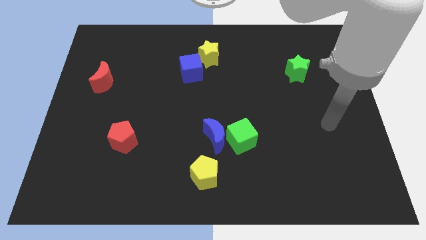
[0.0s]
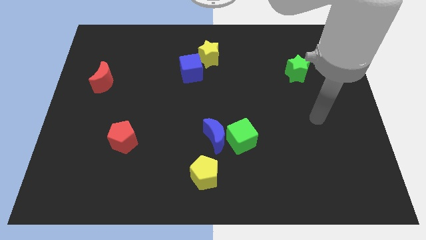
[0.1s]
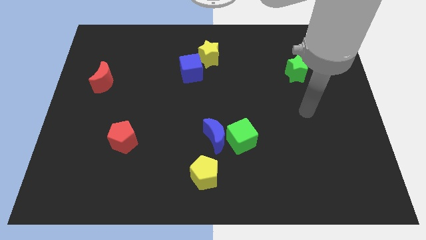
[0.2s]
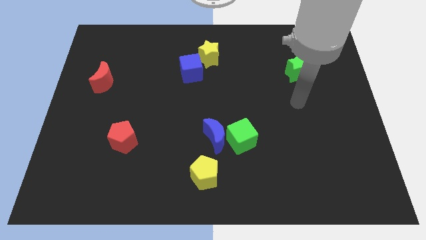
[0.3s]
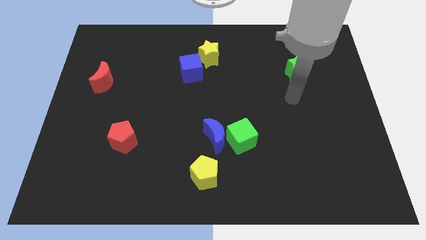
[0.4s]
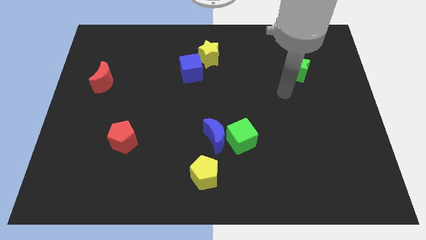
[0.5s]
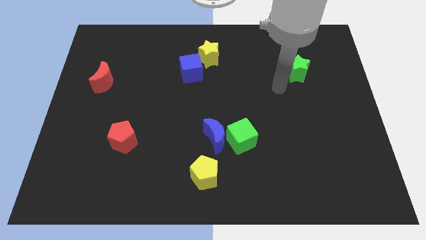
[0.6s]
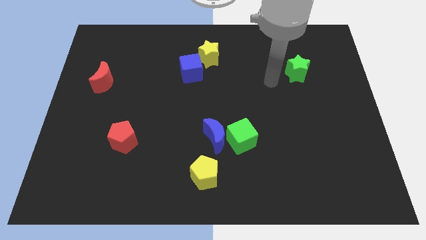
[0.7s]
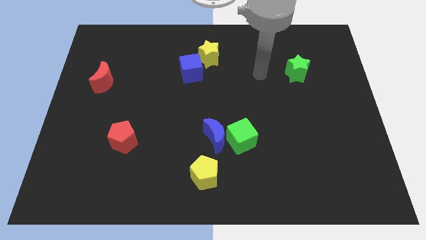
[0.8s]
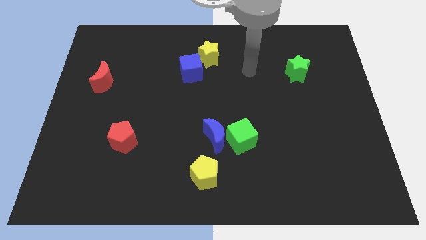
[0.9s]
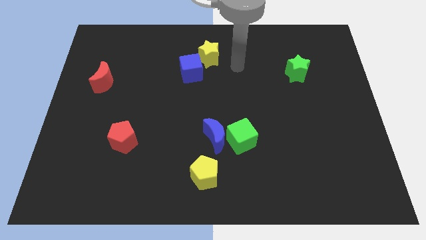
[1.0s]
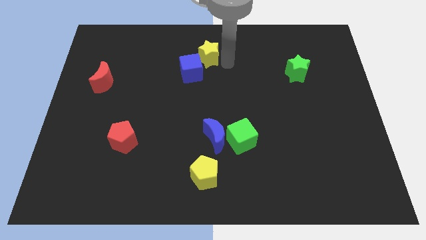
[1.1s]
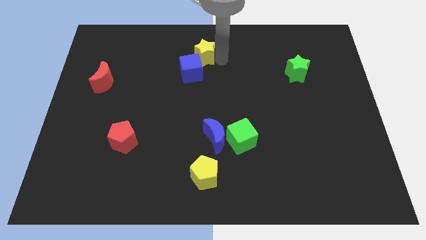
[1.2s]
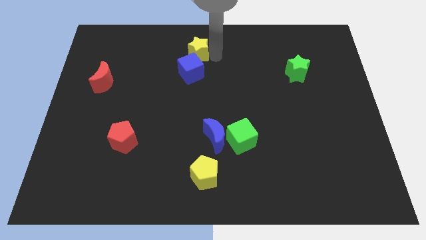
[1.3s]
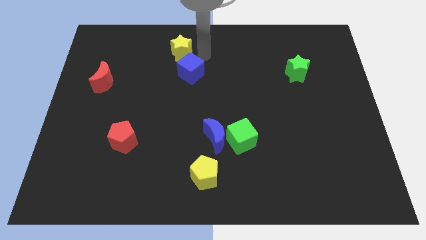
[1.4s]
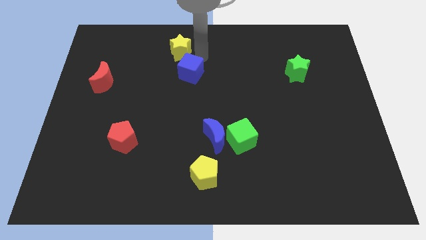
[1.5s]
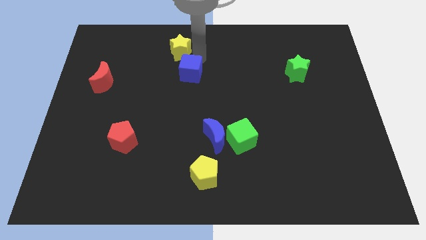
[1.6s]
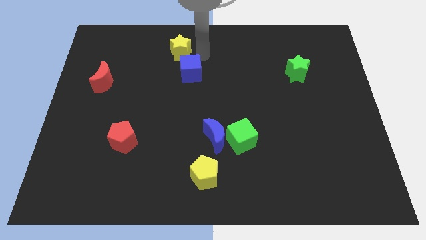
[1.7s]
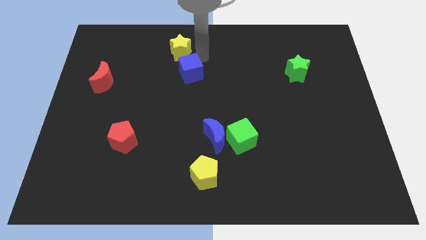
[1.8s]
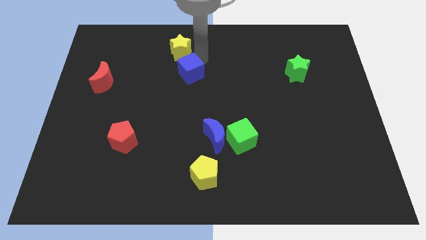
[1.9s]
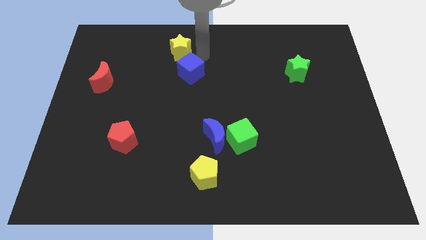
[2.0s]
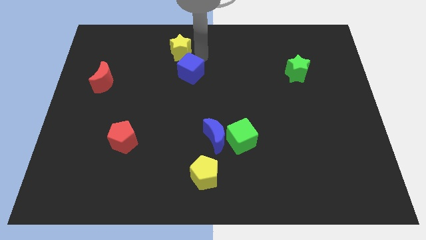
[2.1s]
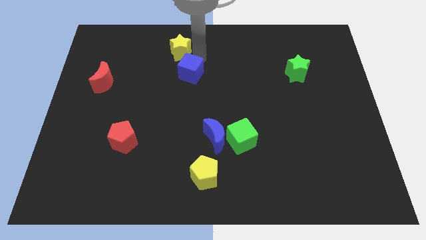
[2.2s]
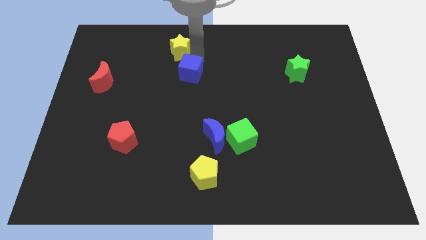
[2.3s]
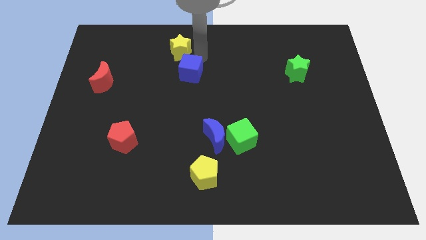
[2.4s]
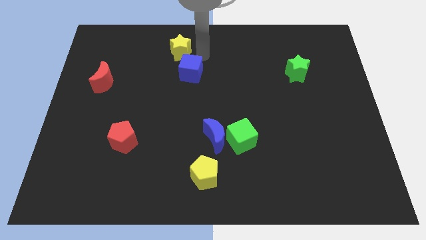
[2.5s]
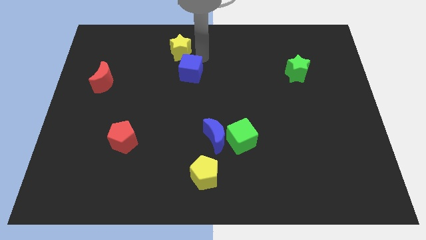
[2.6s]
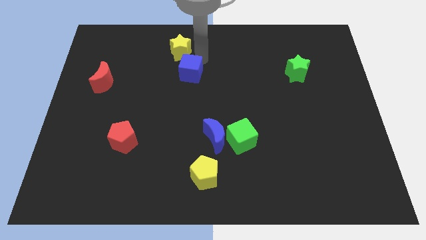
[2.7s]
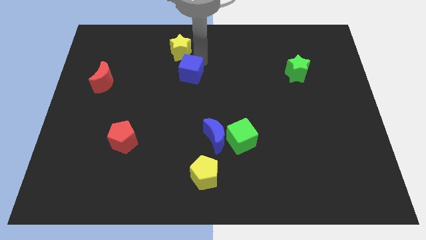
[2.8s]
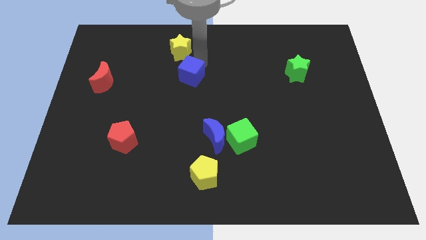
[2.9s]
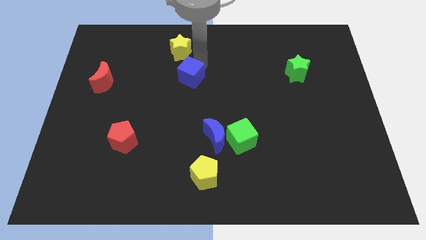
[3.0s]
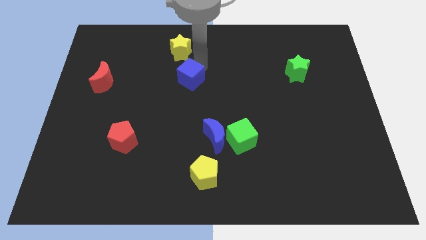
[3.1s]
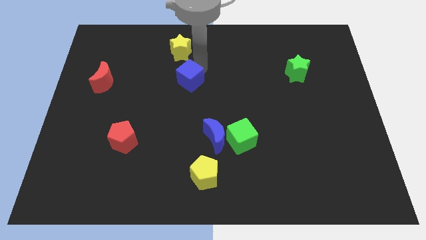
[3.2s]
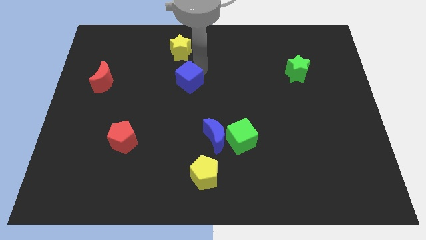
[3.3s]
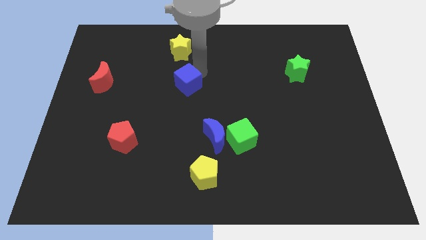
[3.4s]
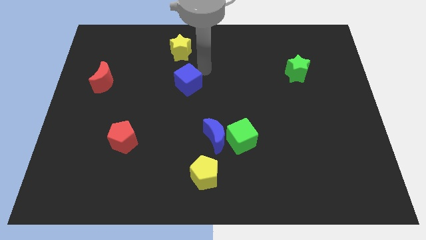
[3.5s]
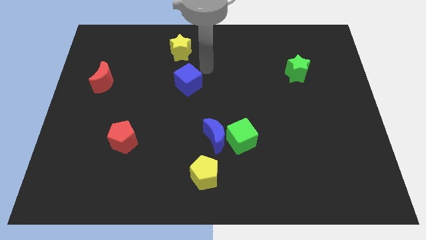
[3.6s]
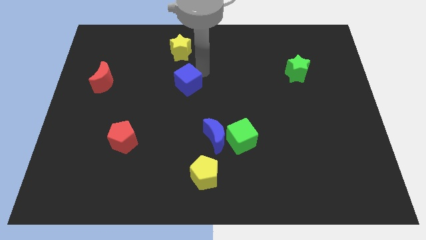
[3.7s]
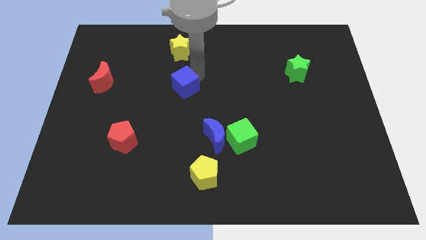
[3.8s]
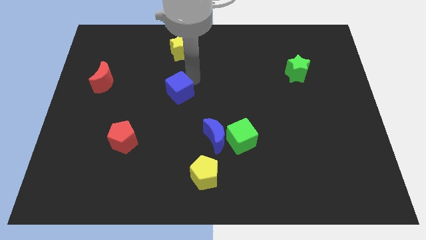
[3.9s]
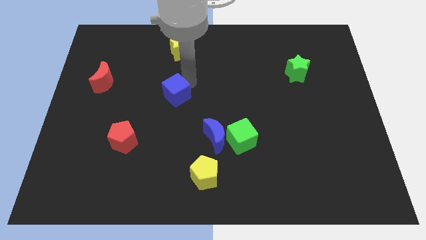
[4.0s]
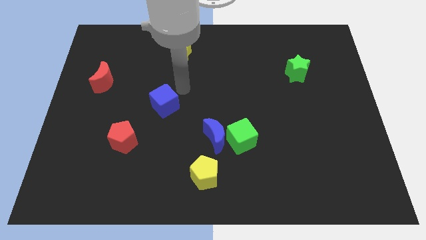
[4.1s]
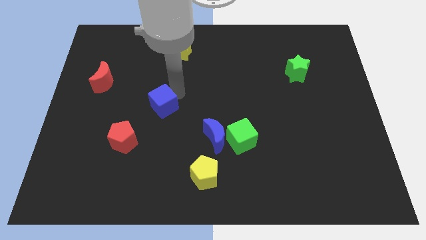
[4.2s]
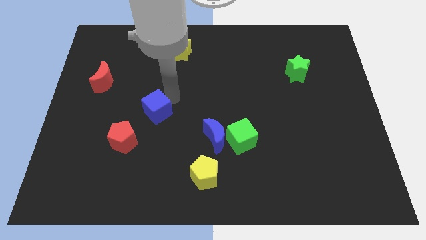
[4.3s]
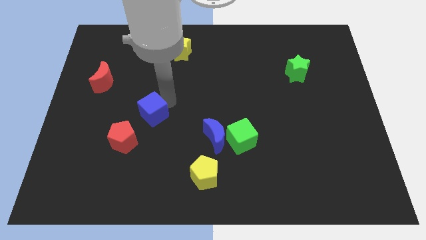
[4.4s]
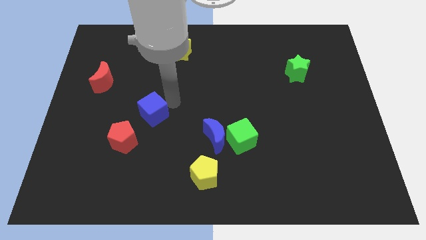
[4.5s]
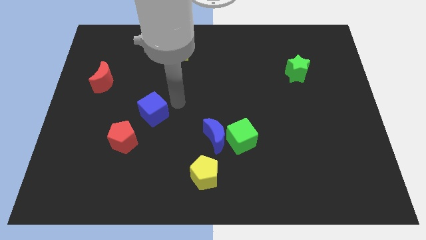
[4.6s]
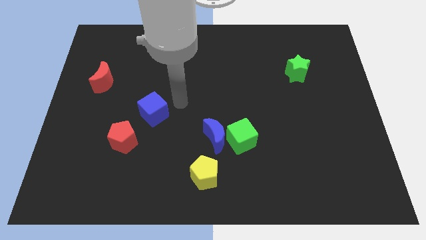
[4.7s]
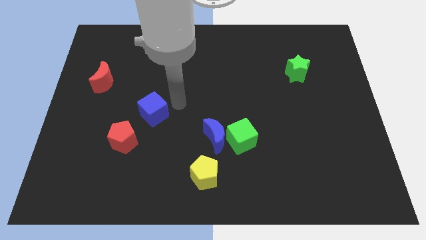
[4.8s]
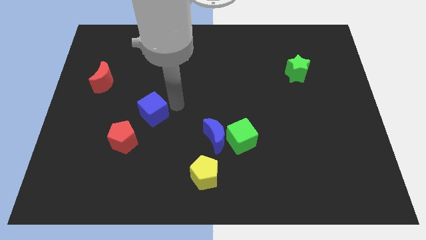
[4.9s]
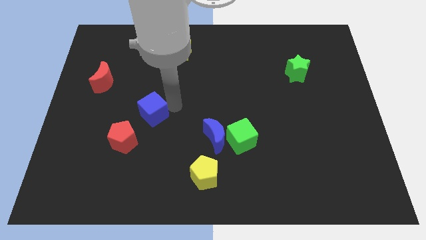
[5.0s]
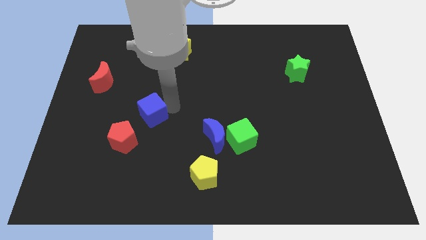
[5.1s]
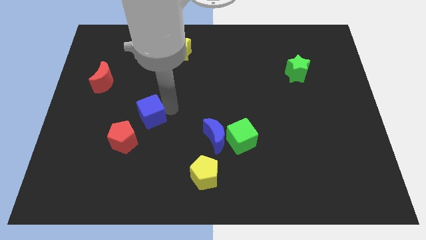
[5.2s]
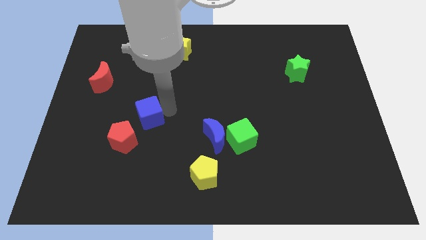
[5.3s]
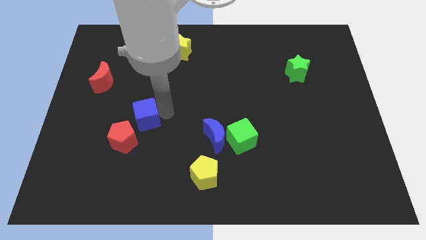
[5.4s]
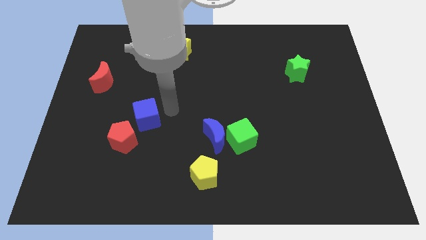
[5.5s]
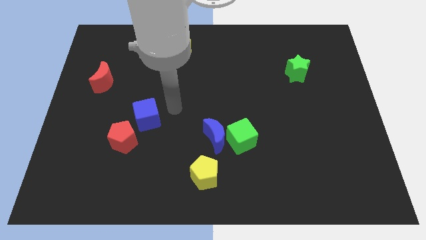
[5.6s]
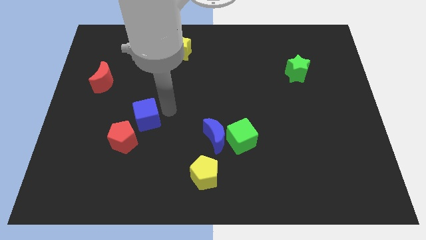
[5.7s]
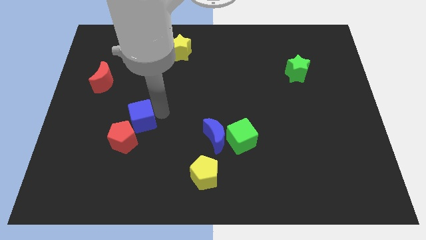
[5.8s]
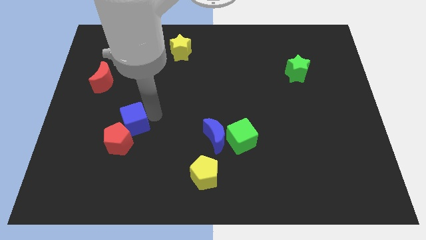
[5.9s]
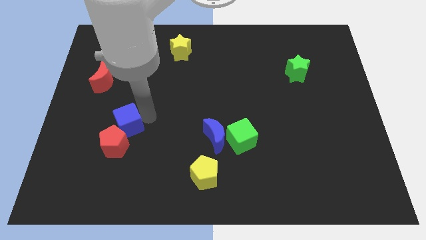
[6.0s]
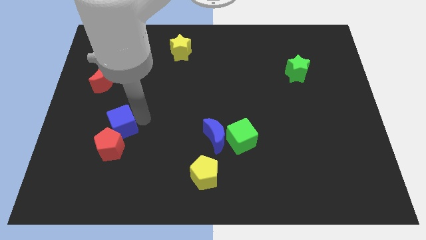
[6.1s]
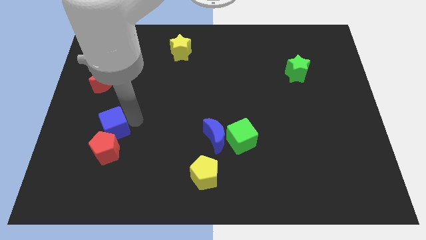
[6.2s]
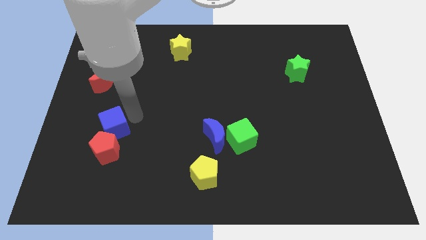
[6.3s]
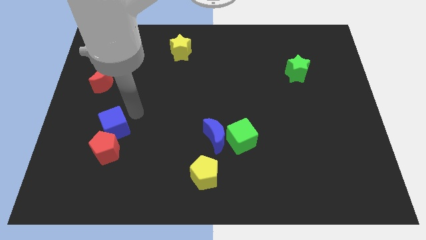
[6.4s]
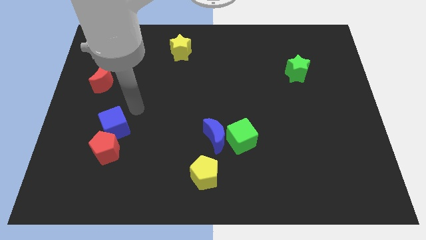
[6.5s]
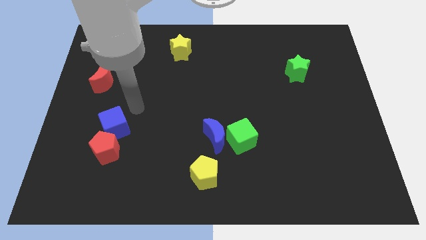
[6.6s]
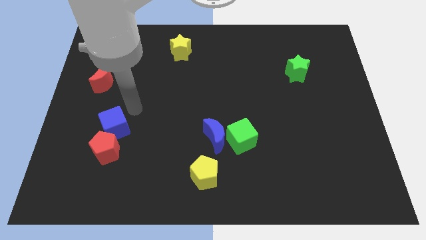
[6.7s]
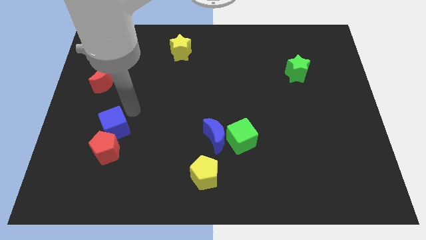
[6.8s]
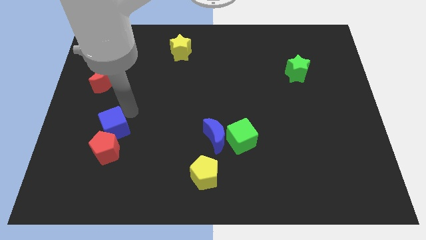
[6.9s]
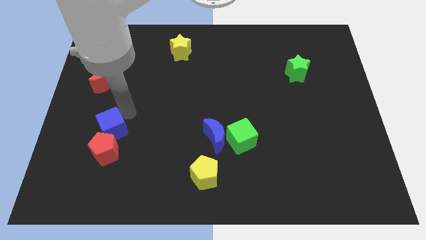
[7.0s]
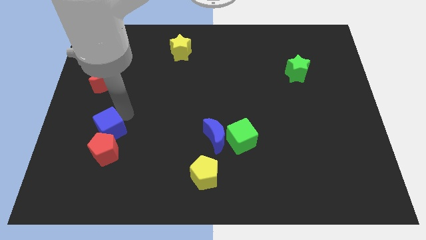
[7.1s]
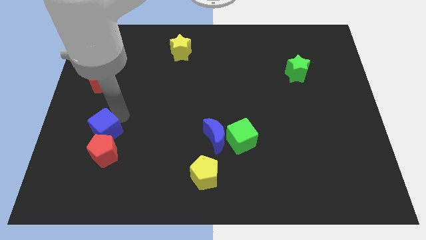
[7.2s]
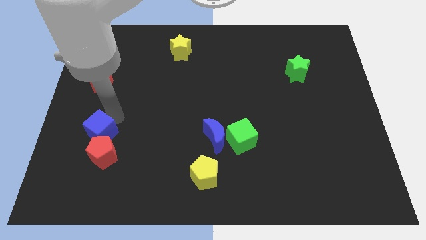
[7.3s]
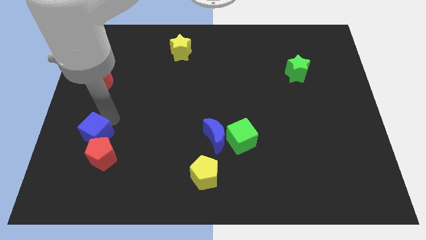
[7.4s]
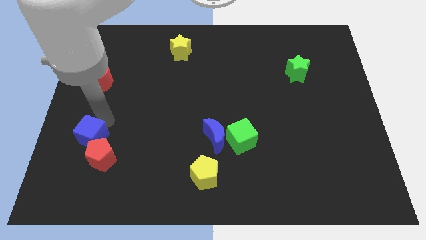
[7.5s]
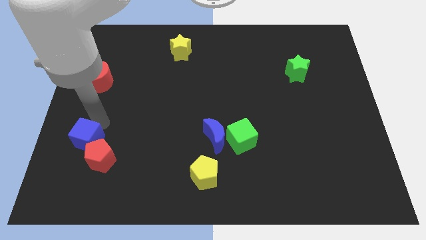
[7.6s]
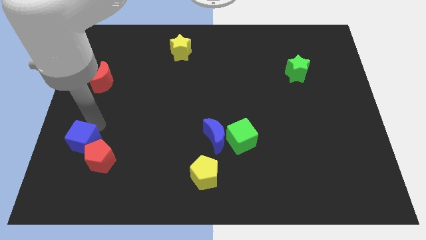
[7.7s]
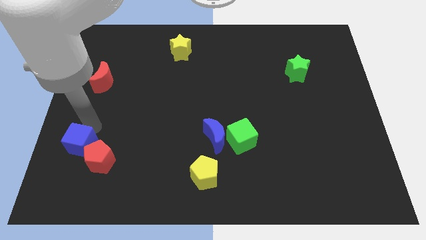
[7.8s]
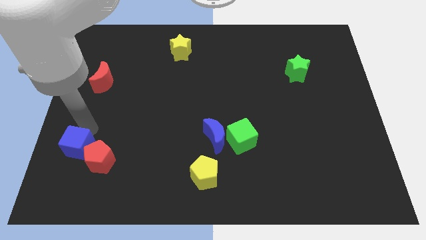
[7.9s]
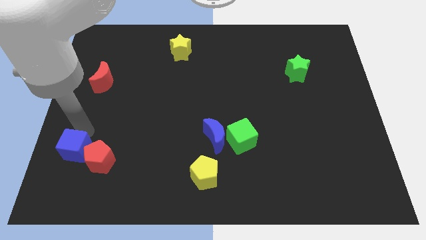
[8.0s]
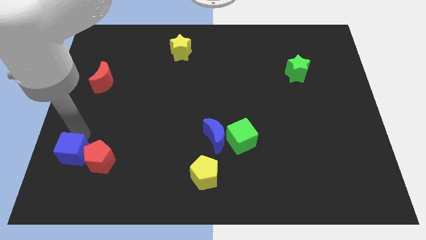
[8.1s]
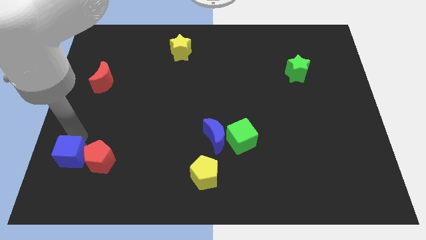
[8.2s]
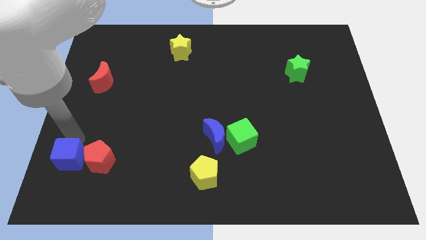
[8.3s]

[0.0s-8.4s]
slide the blue cube to the bottom left side of the red pentagon
